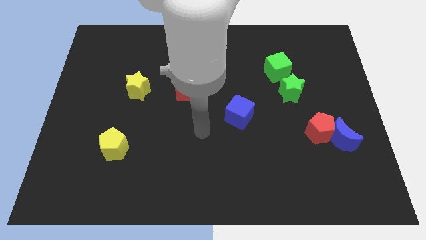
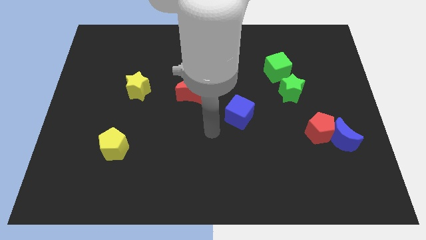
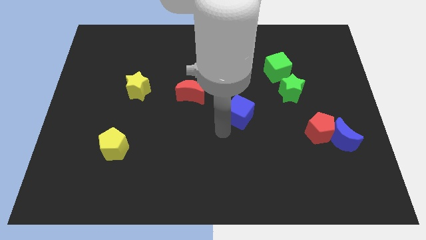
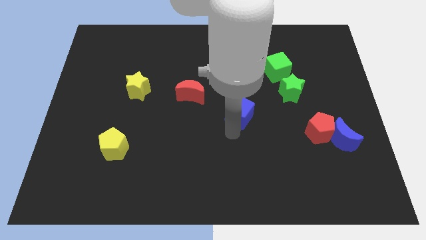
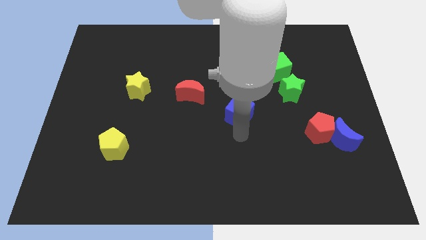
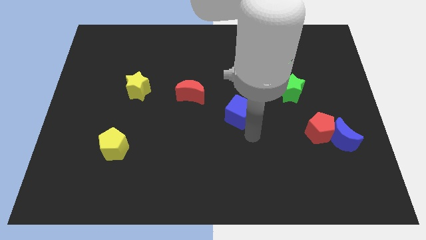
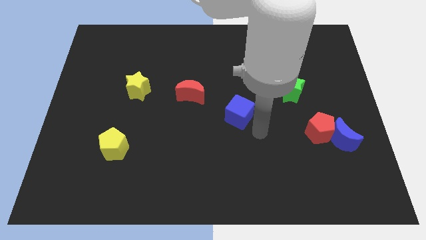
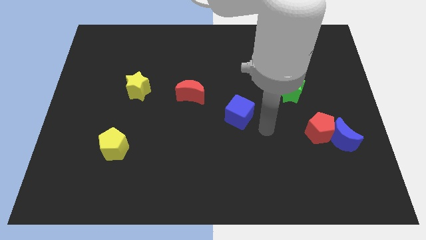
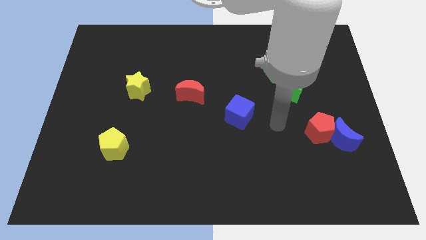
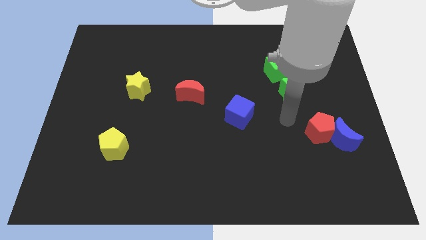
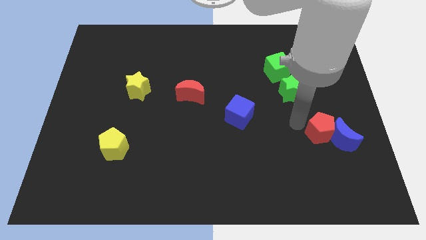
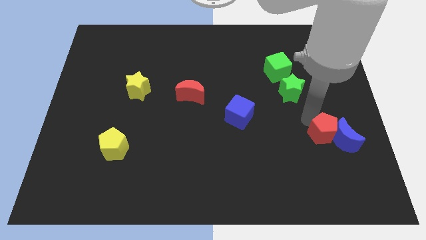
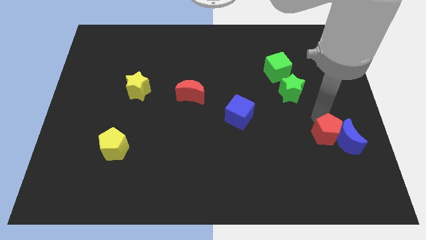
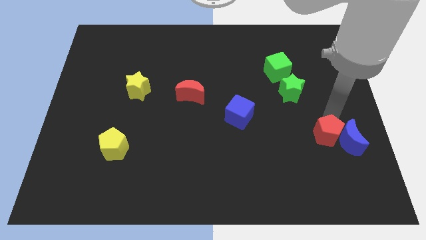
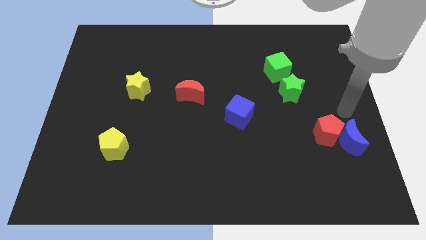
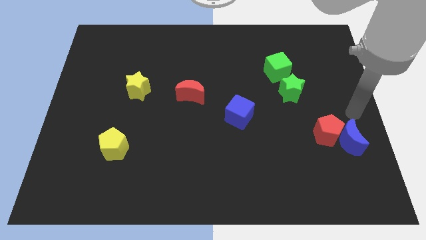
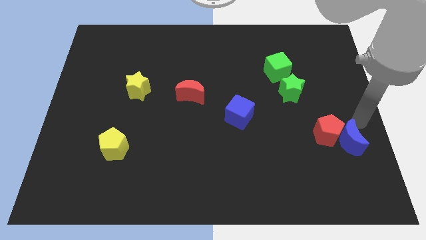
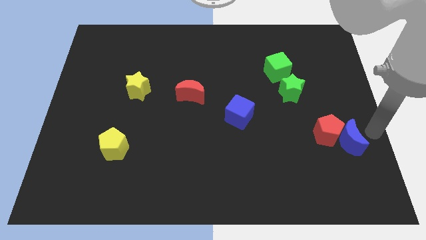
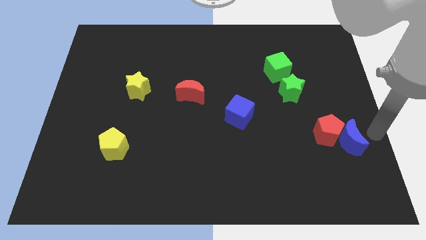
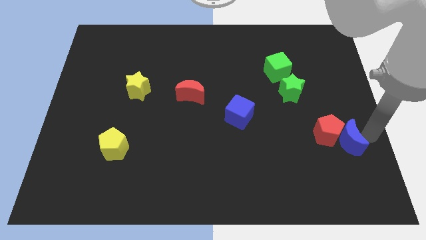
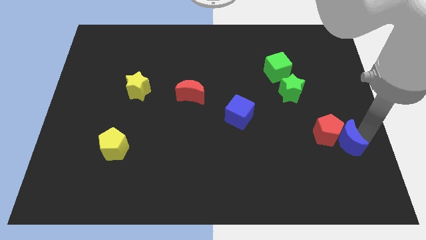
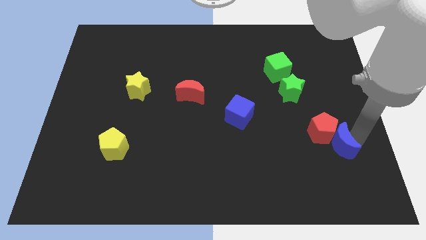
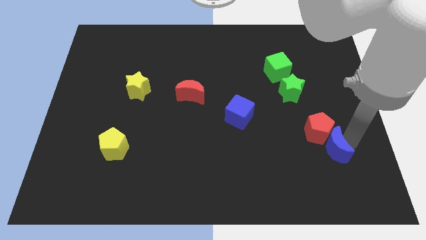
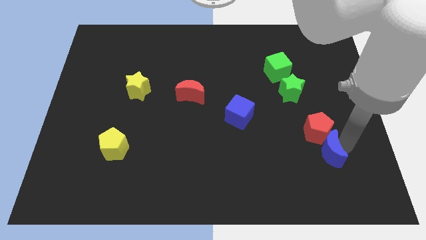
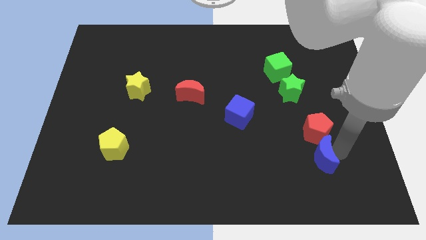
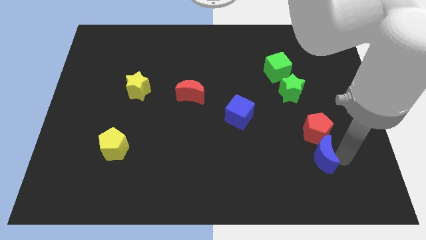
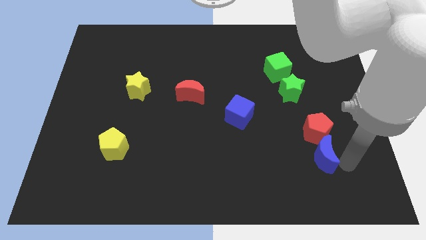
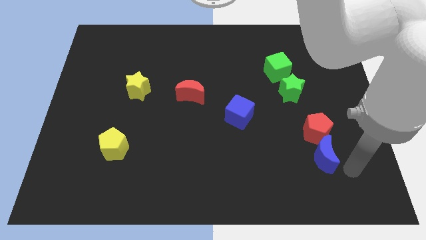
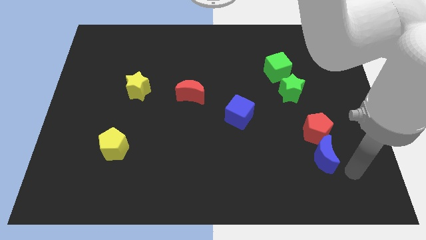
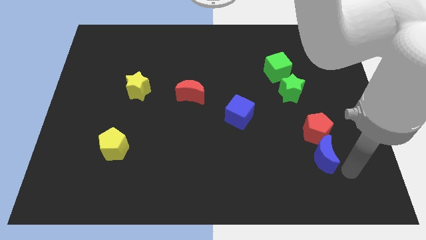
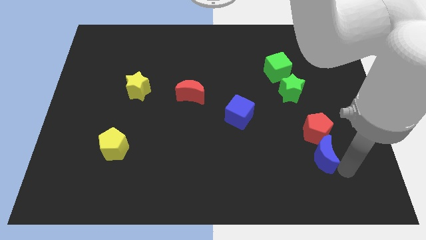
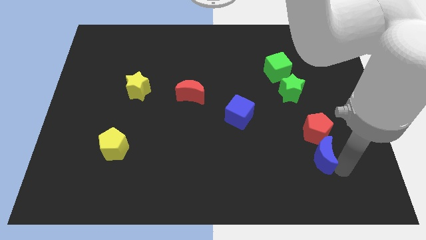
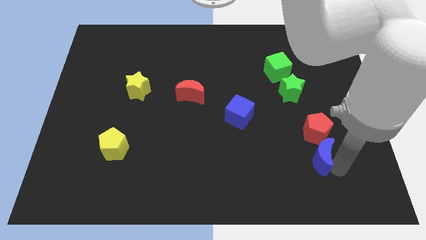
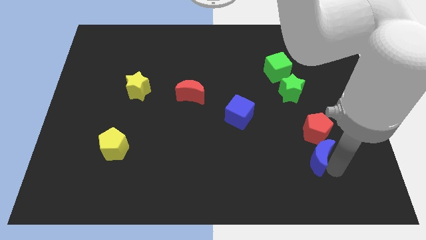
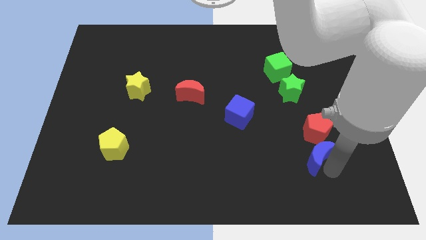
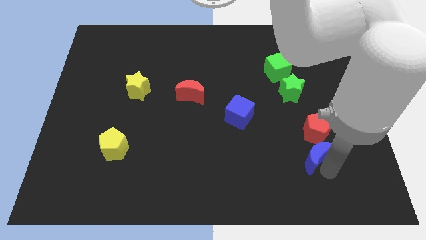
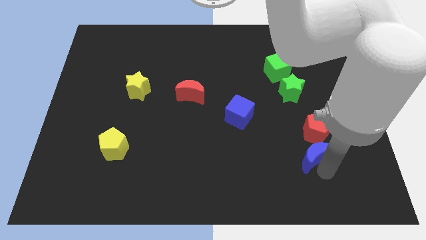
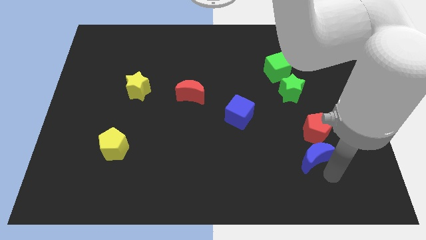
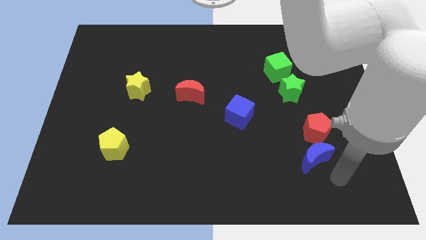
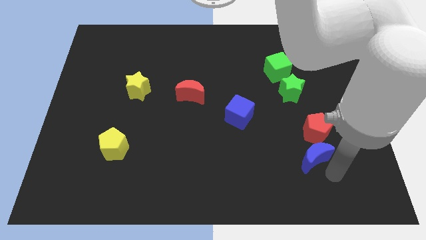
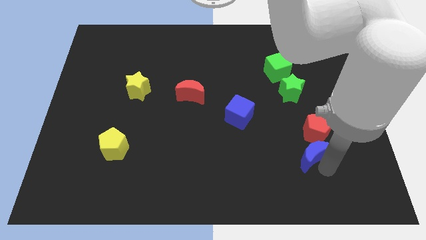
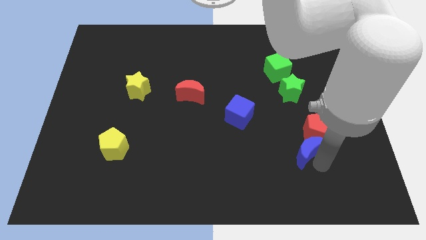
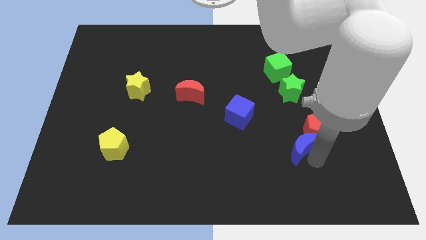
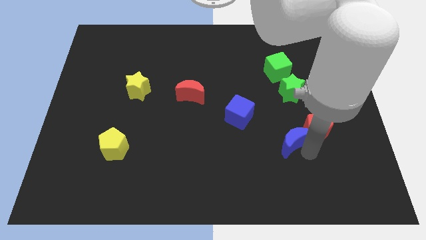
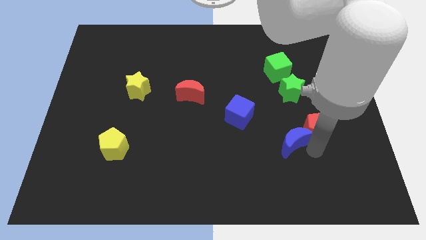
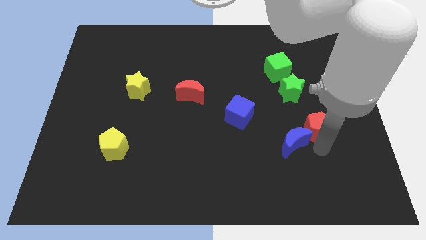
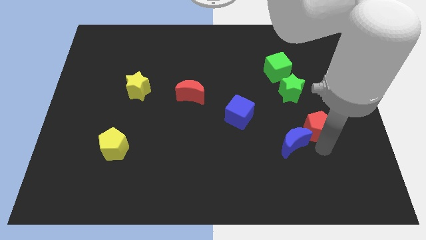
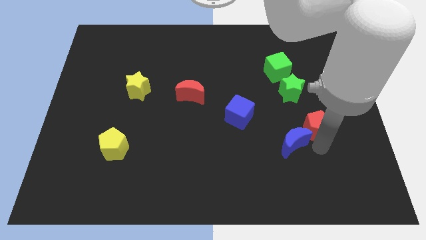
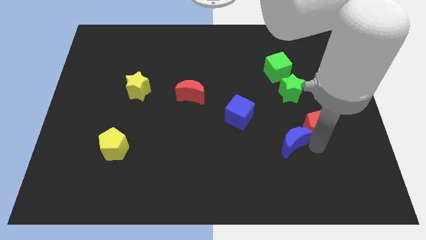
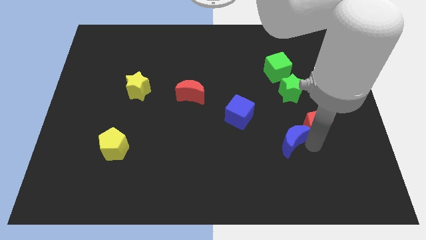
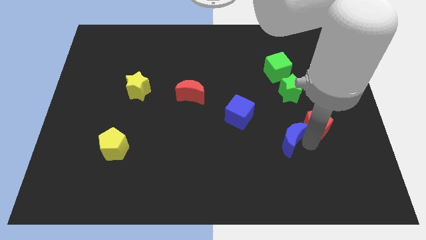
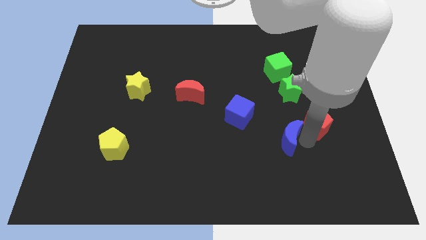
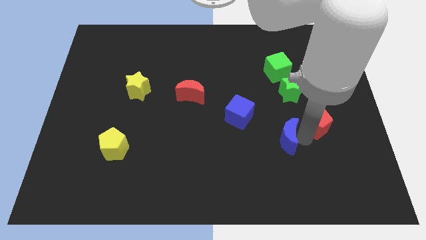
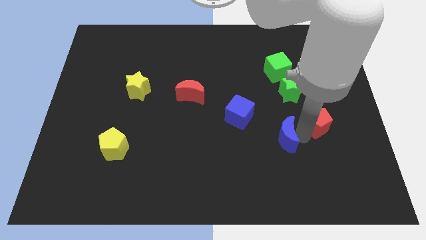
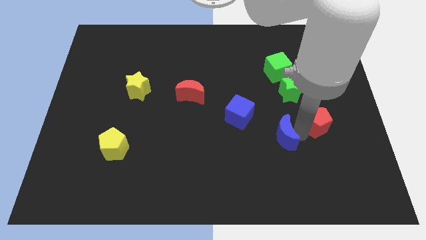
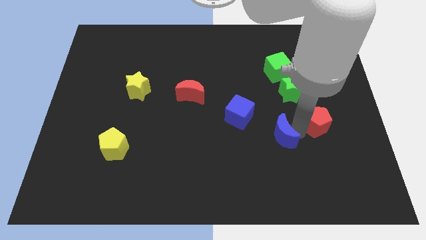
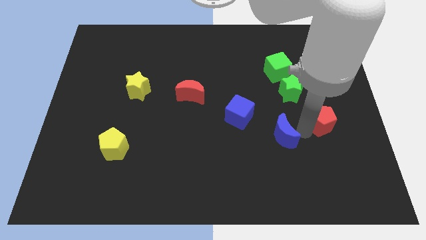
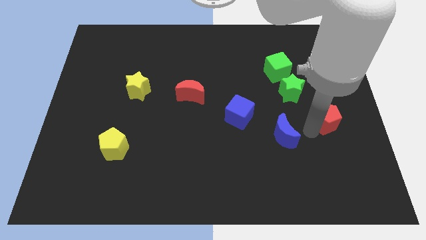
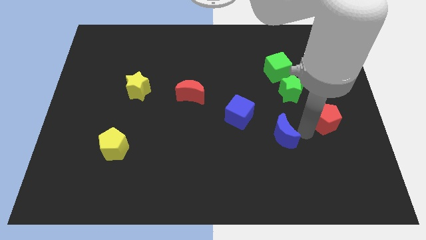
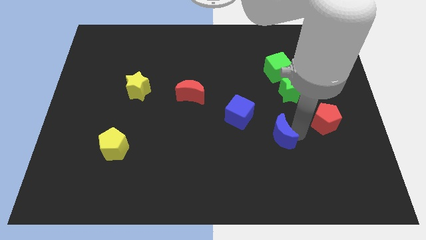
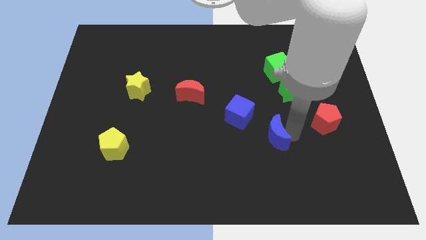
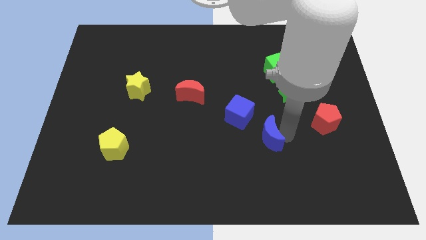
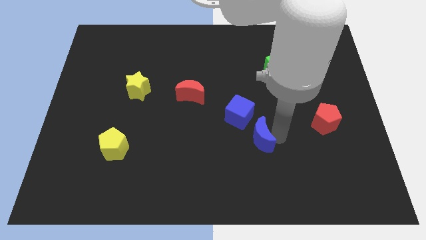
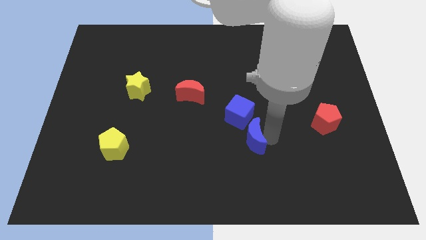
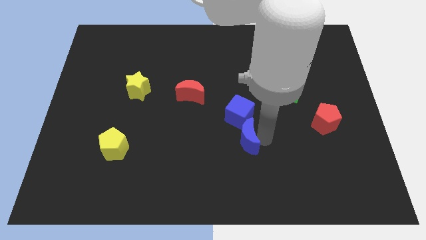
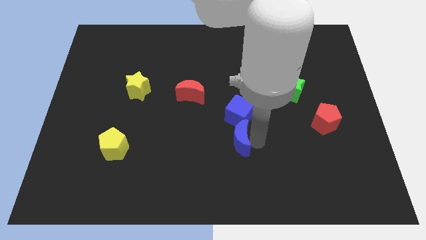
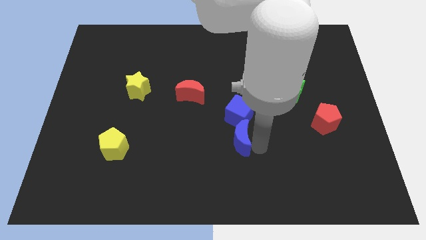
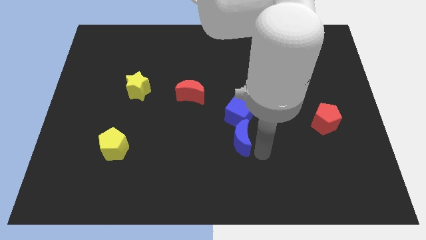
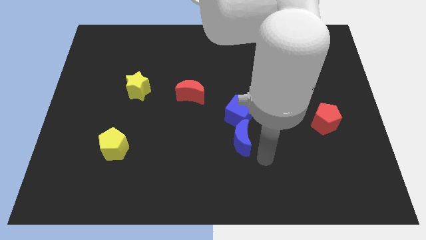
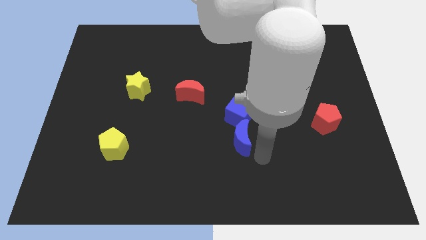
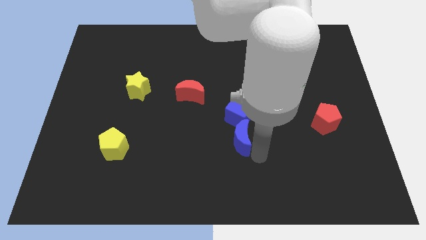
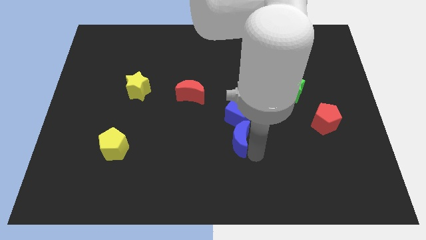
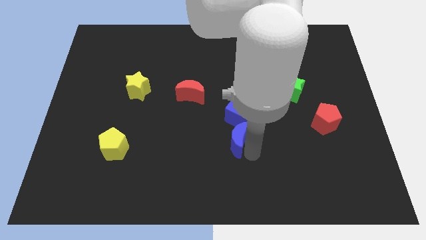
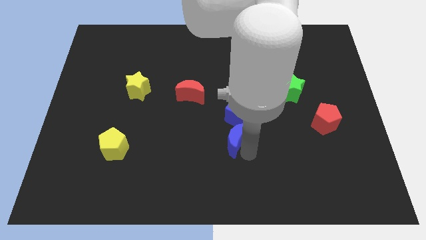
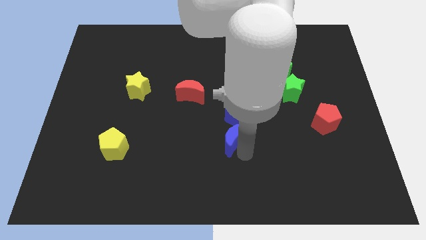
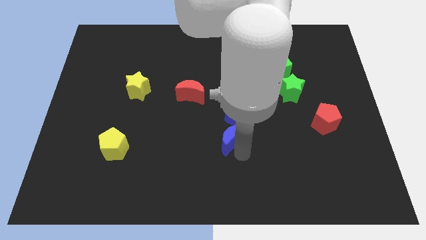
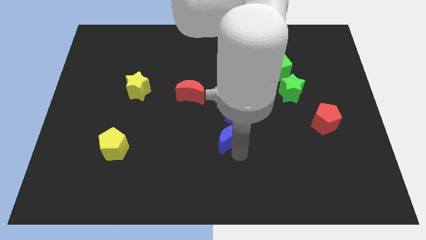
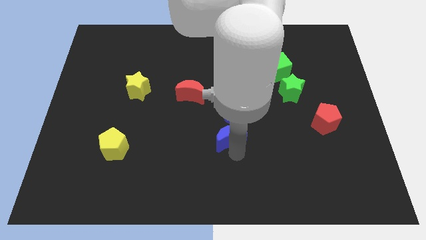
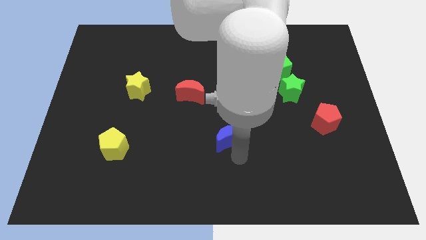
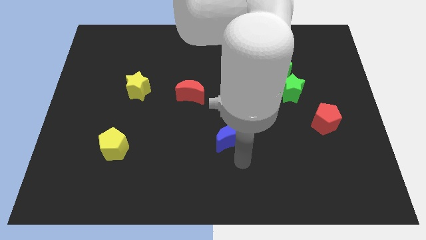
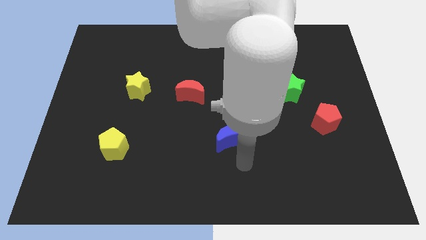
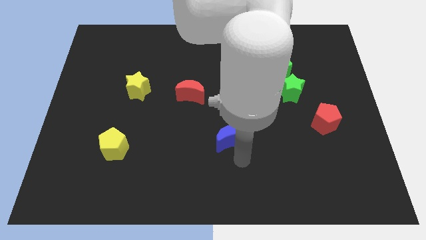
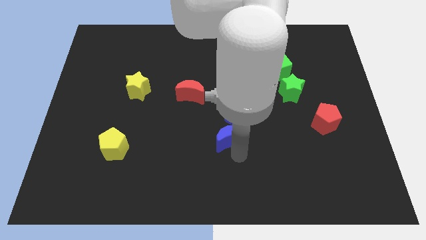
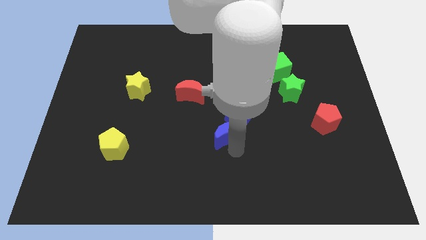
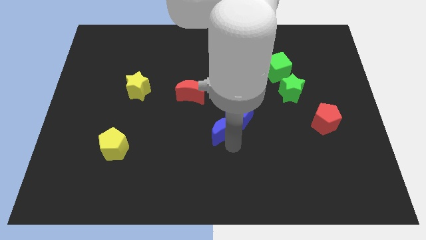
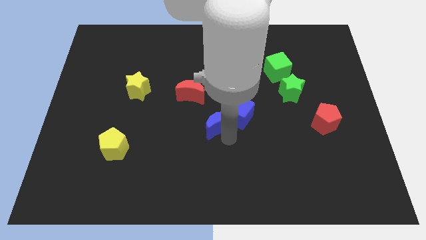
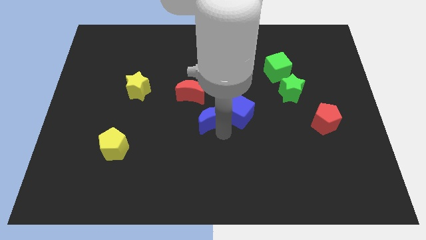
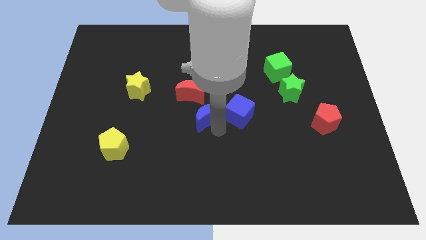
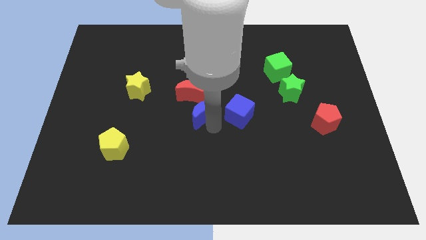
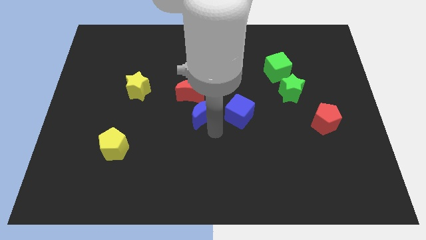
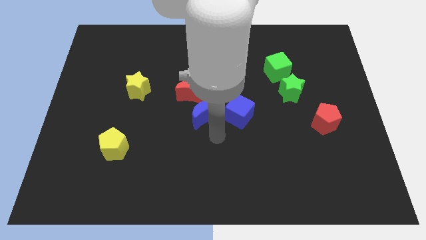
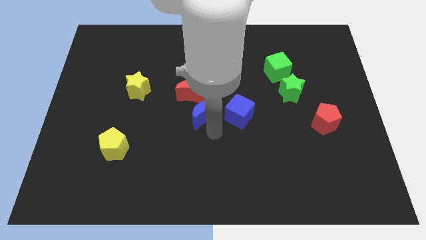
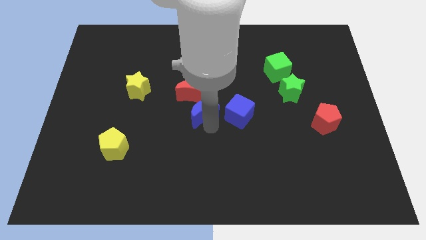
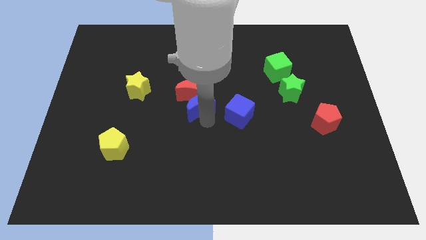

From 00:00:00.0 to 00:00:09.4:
slide the blue moon towards the red moon
